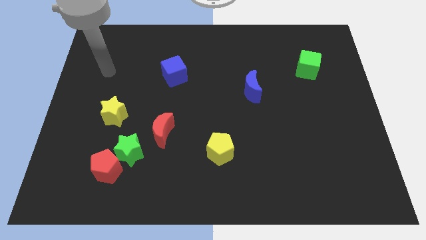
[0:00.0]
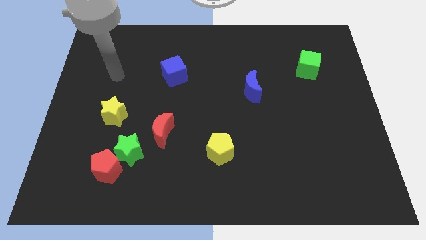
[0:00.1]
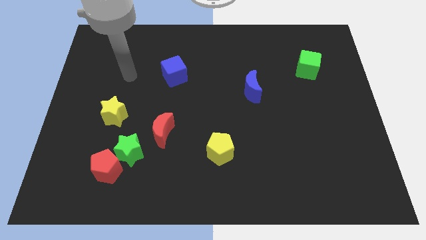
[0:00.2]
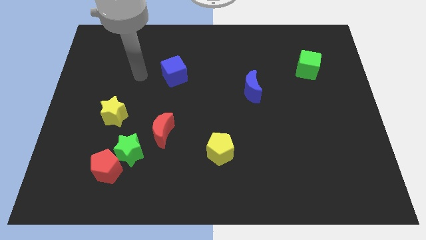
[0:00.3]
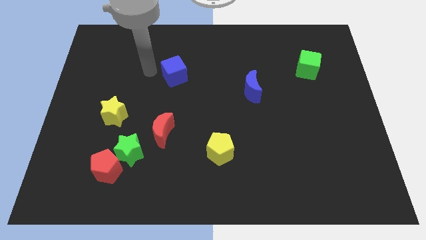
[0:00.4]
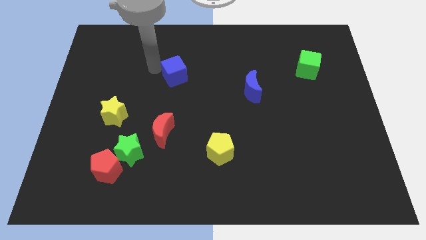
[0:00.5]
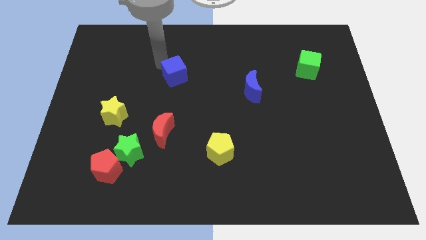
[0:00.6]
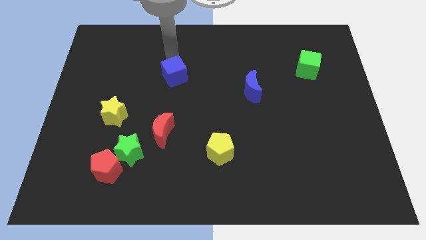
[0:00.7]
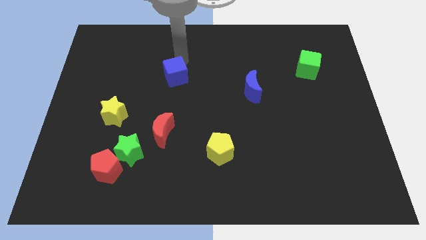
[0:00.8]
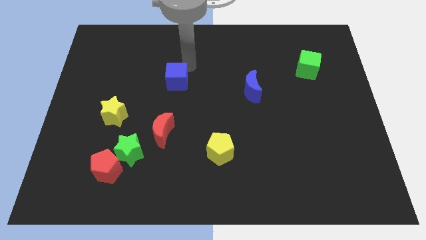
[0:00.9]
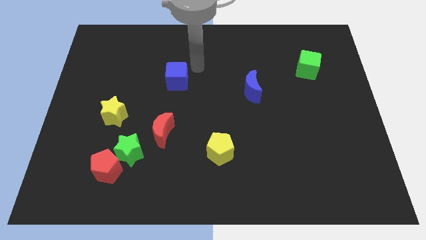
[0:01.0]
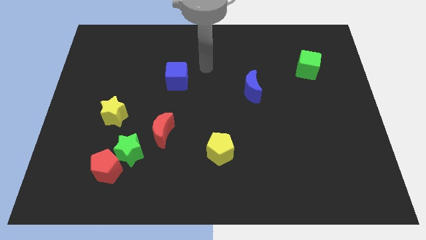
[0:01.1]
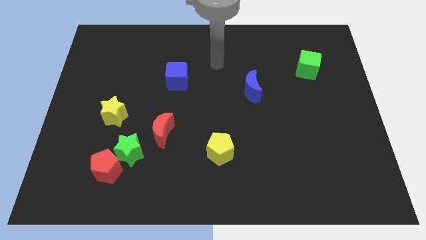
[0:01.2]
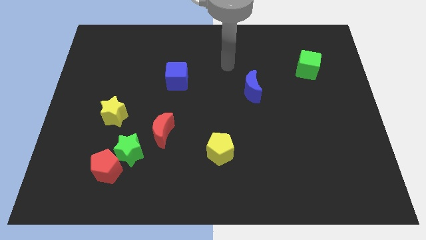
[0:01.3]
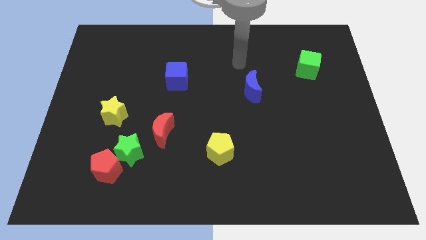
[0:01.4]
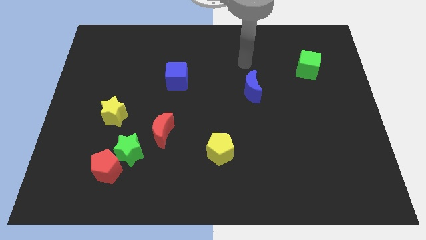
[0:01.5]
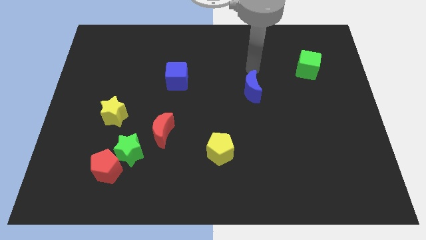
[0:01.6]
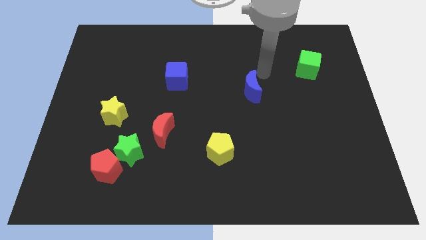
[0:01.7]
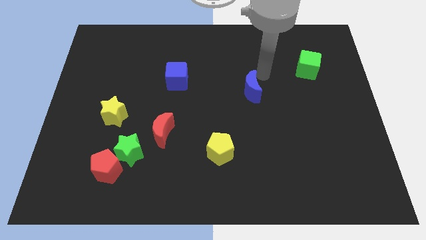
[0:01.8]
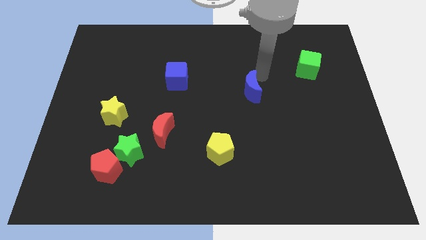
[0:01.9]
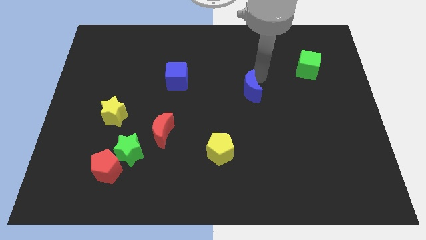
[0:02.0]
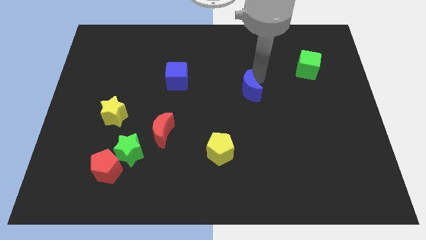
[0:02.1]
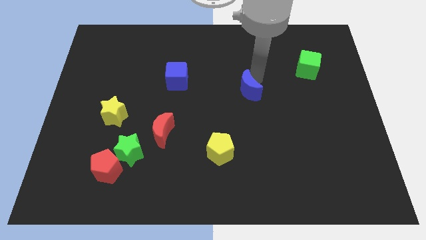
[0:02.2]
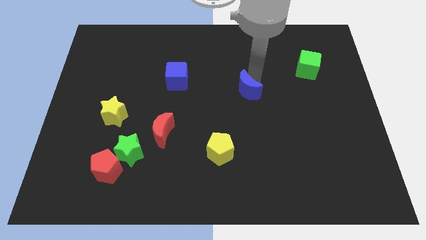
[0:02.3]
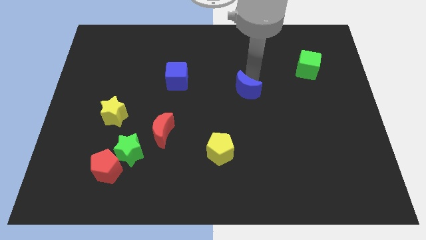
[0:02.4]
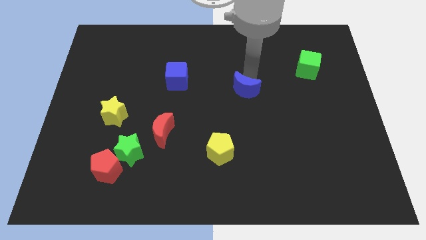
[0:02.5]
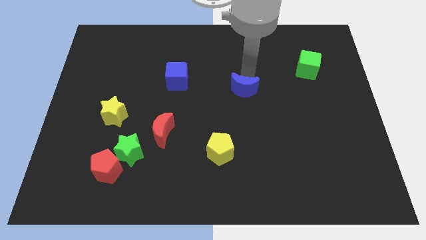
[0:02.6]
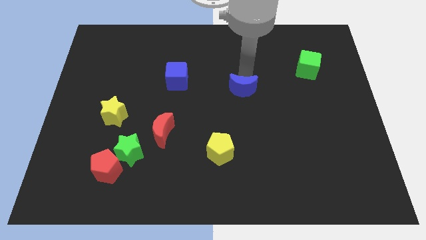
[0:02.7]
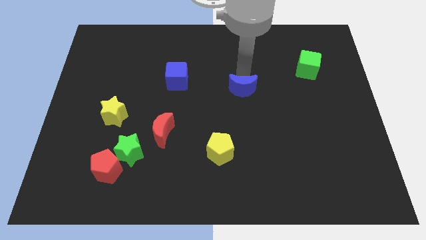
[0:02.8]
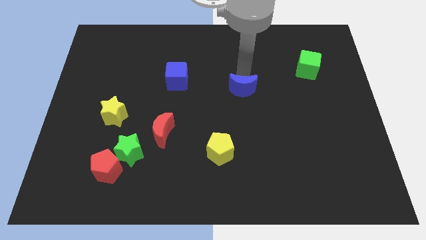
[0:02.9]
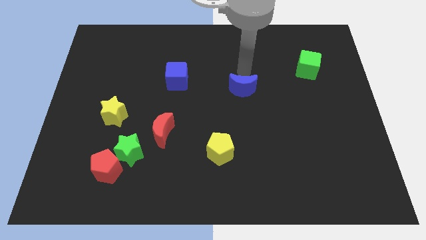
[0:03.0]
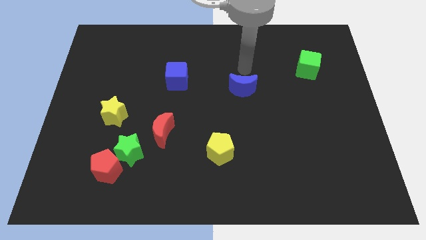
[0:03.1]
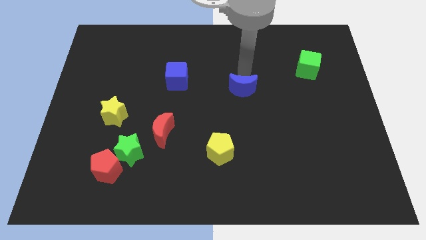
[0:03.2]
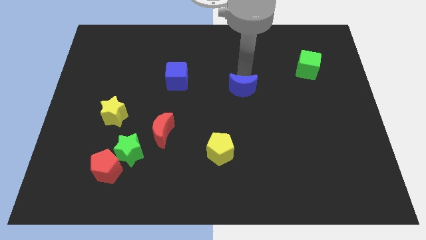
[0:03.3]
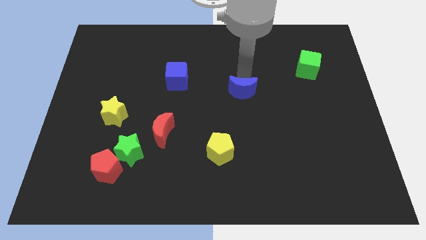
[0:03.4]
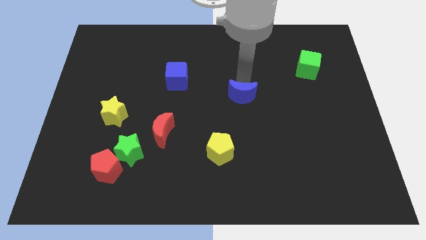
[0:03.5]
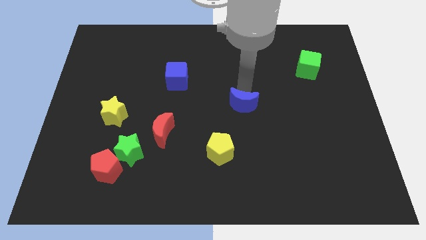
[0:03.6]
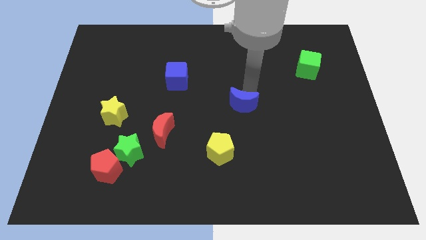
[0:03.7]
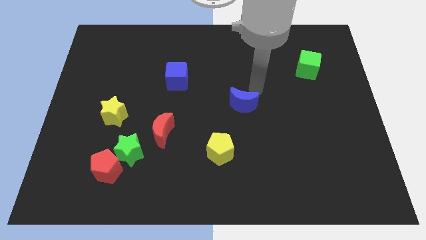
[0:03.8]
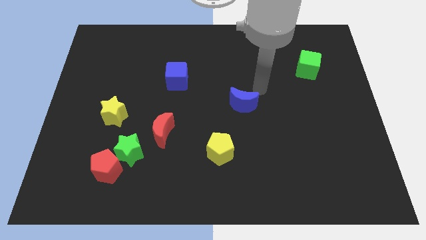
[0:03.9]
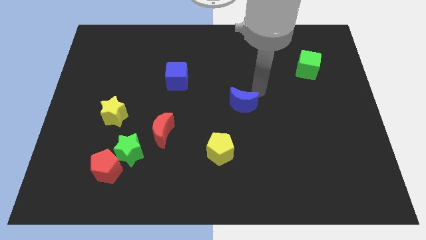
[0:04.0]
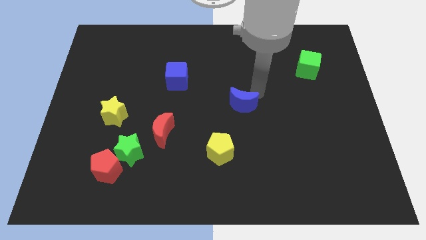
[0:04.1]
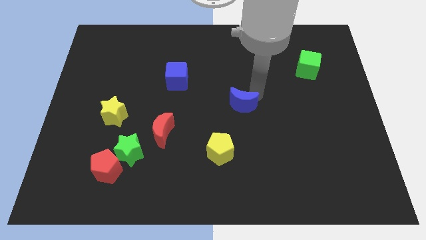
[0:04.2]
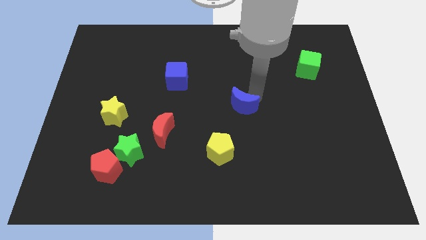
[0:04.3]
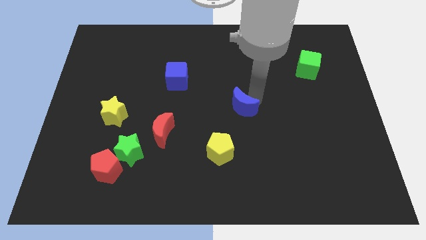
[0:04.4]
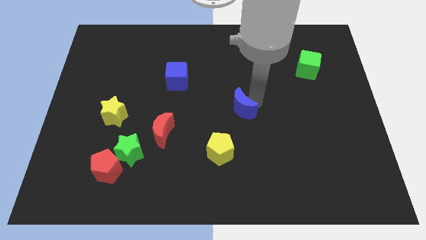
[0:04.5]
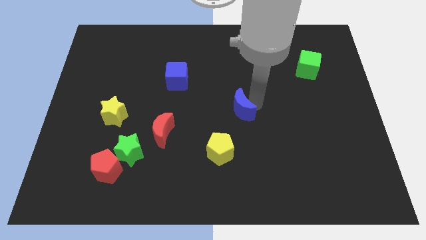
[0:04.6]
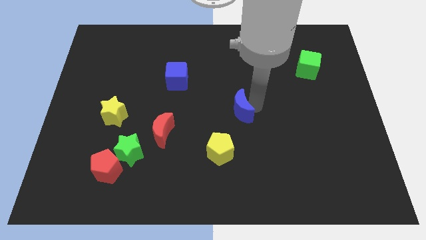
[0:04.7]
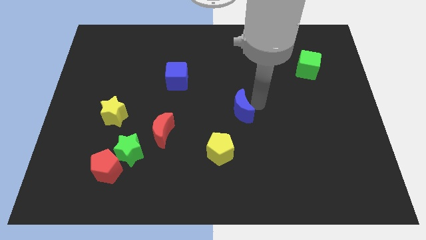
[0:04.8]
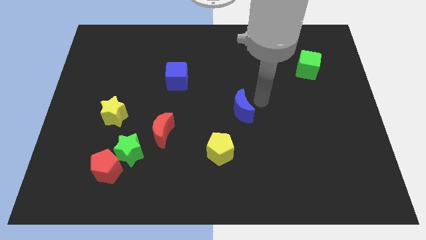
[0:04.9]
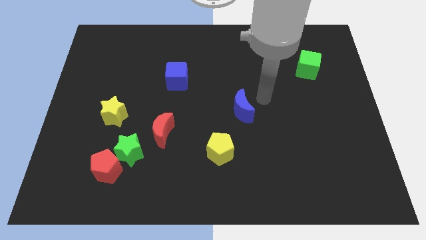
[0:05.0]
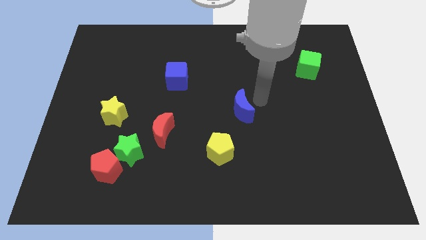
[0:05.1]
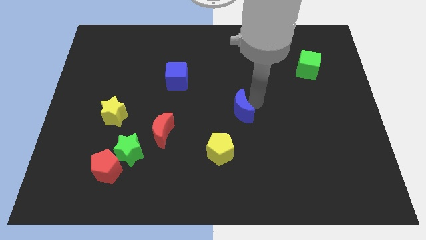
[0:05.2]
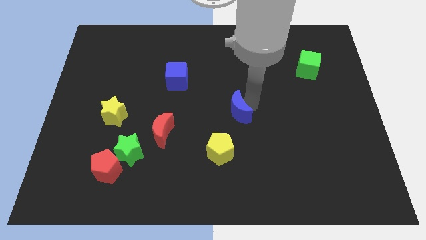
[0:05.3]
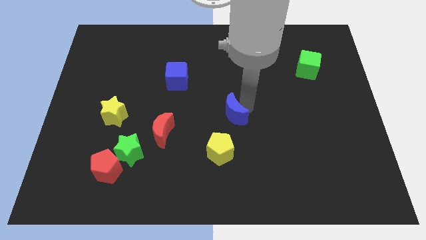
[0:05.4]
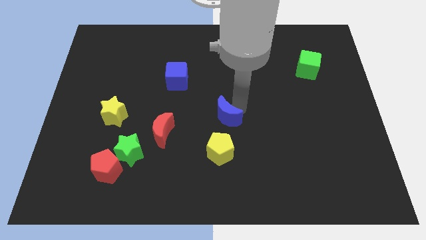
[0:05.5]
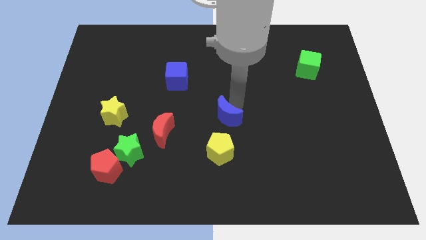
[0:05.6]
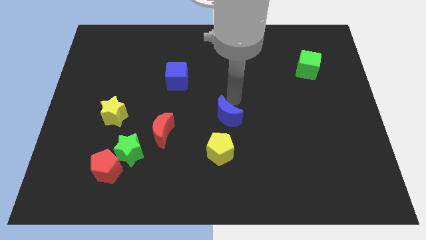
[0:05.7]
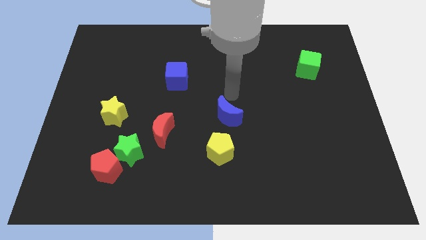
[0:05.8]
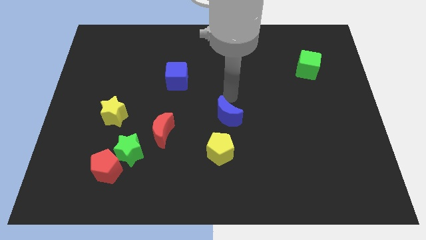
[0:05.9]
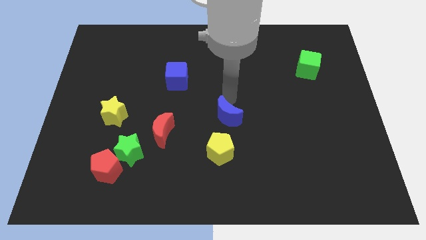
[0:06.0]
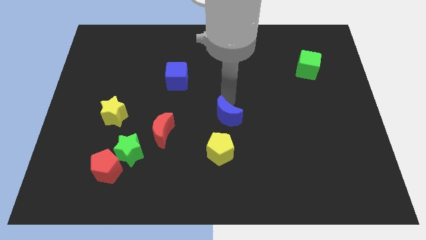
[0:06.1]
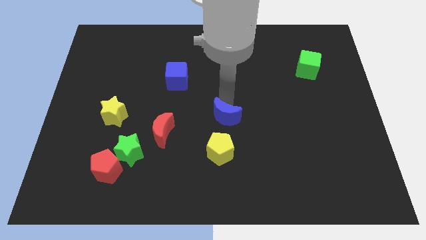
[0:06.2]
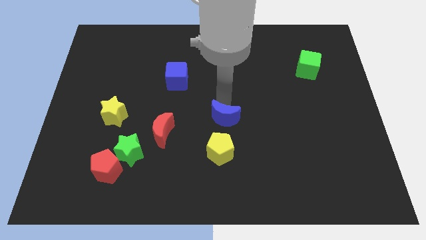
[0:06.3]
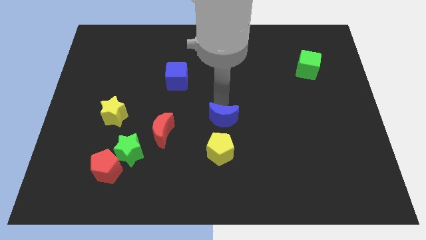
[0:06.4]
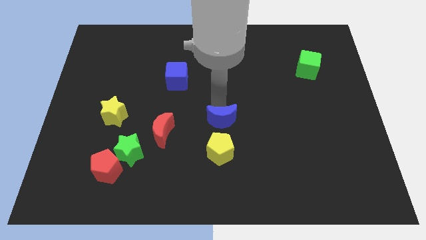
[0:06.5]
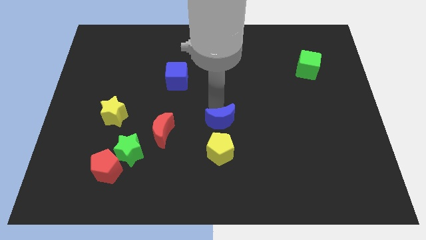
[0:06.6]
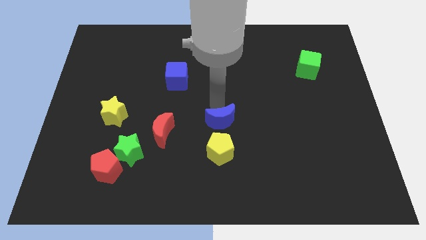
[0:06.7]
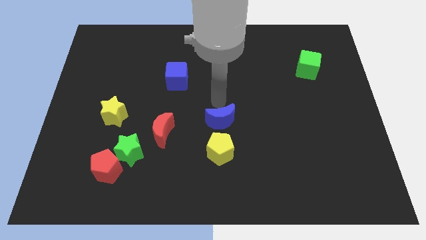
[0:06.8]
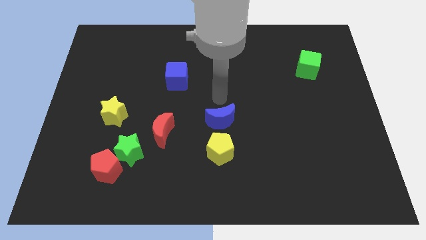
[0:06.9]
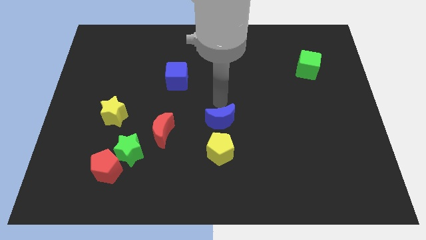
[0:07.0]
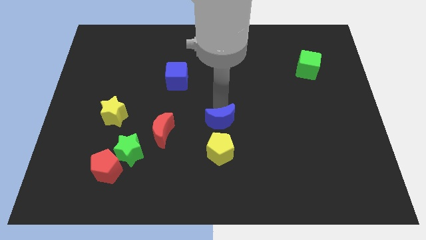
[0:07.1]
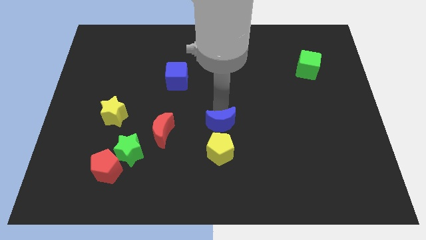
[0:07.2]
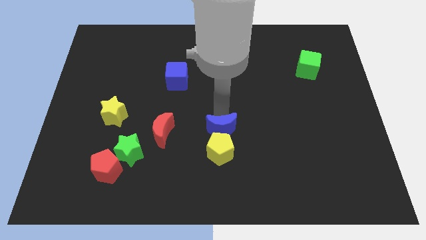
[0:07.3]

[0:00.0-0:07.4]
move the blue moon close to the yellow pentagon

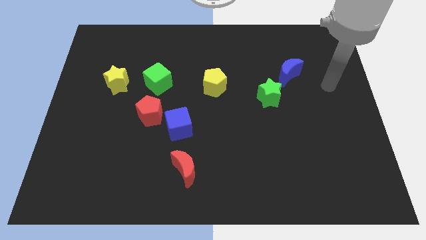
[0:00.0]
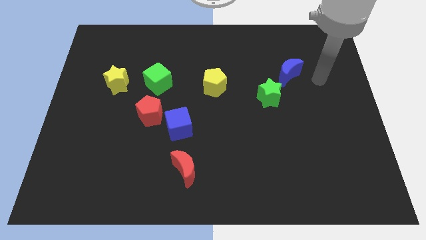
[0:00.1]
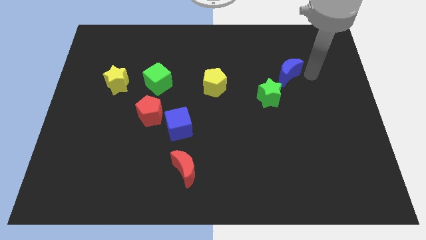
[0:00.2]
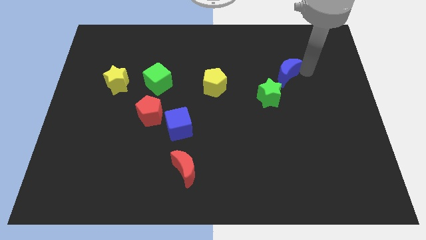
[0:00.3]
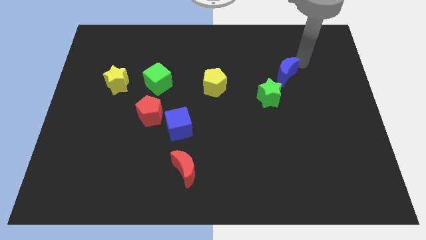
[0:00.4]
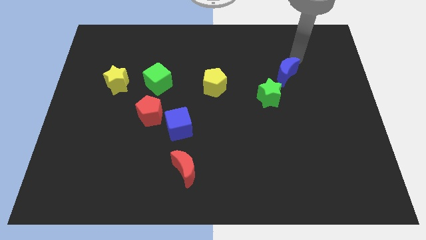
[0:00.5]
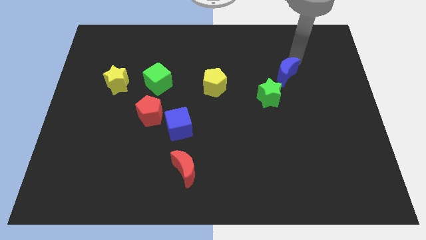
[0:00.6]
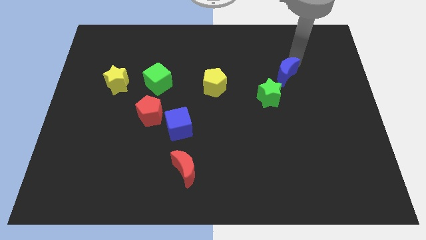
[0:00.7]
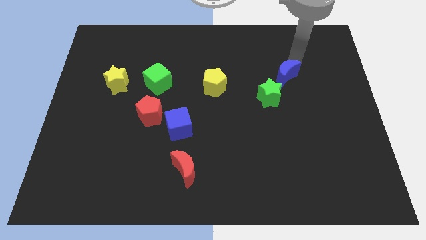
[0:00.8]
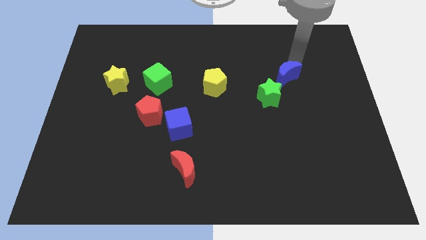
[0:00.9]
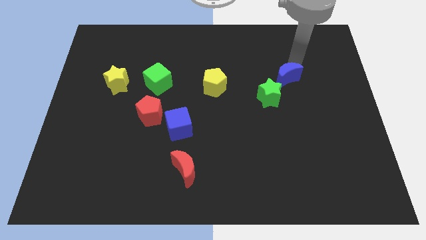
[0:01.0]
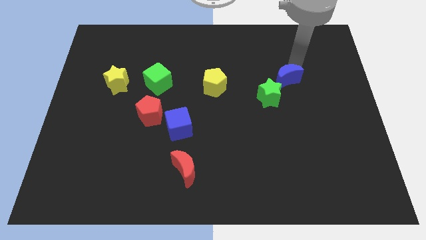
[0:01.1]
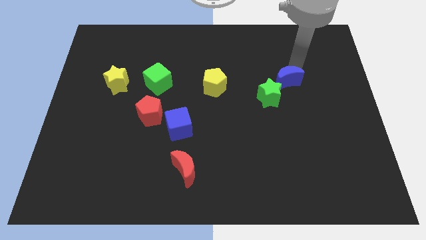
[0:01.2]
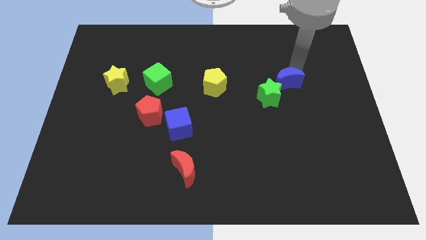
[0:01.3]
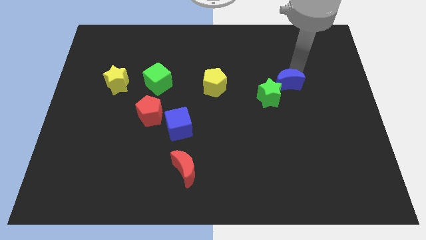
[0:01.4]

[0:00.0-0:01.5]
move the blue moon to the green star
